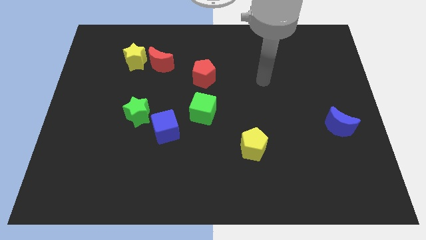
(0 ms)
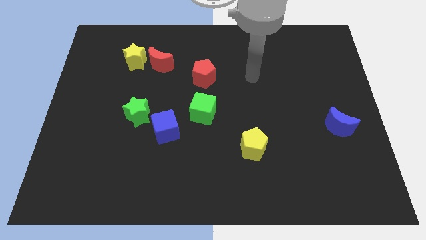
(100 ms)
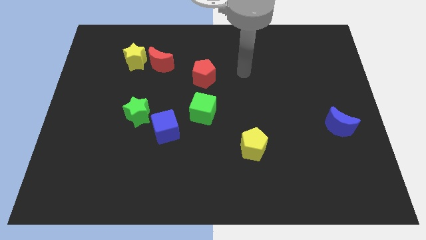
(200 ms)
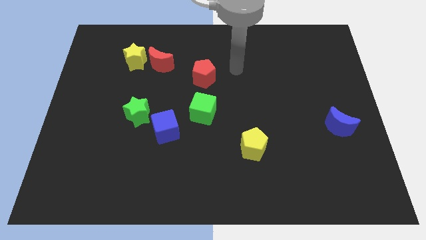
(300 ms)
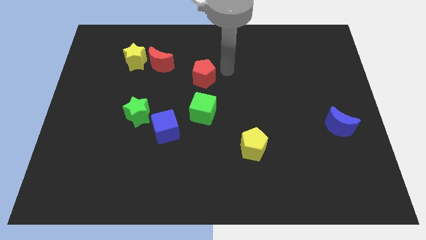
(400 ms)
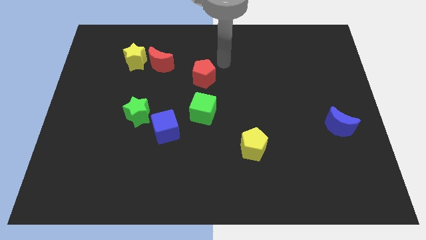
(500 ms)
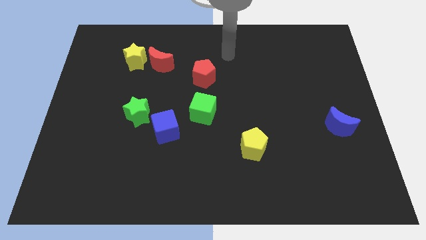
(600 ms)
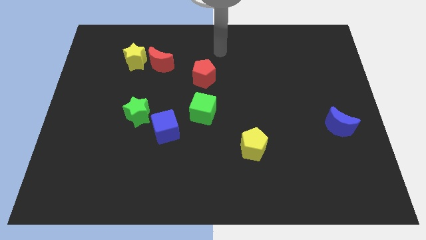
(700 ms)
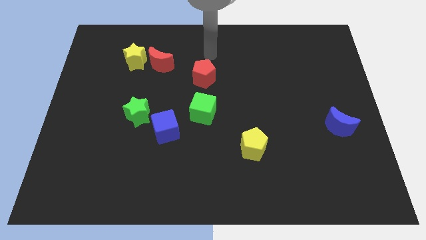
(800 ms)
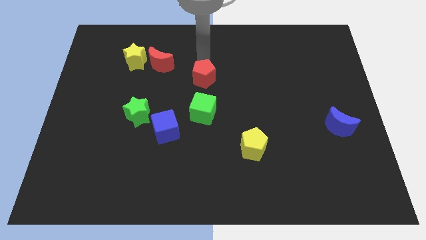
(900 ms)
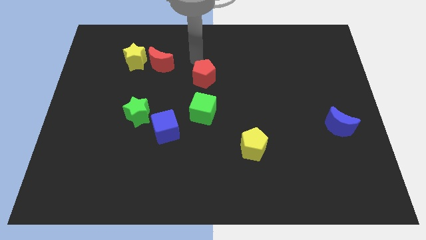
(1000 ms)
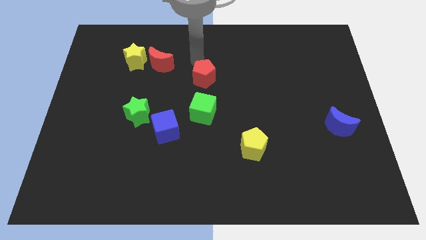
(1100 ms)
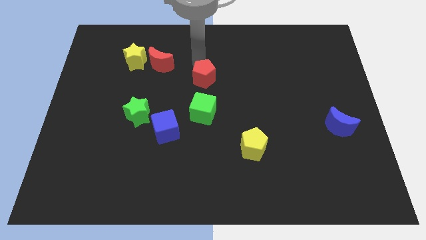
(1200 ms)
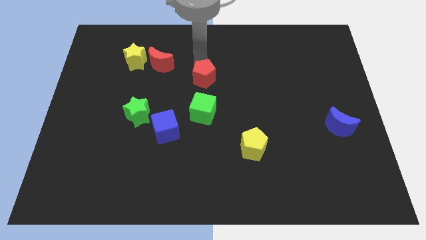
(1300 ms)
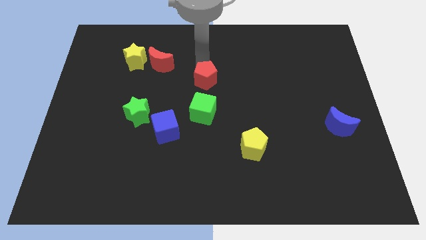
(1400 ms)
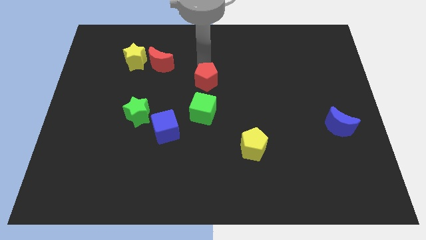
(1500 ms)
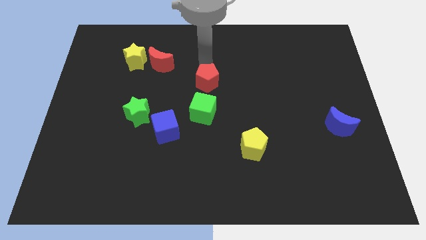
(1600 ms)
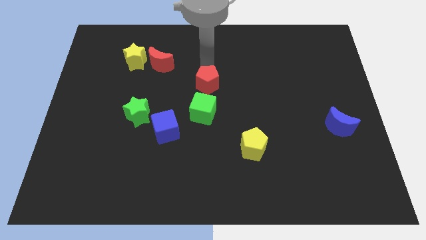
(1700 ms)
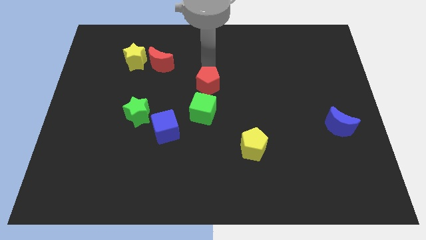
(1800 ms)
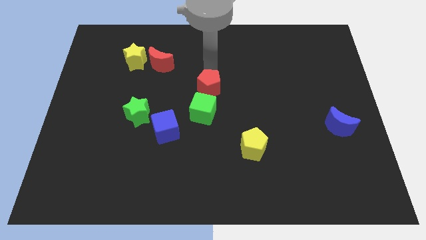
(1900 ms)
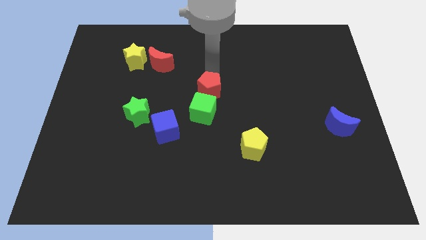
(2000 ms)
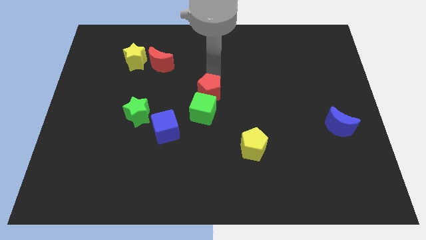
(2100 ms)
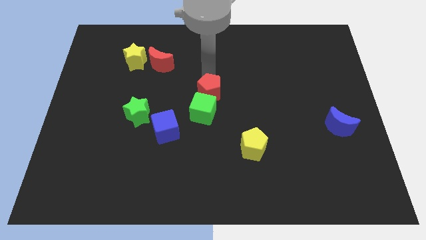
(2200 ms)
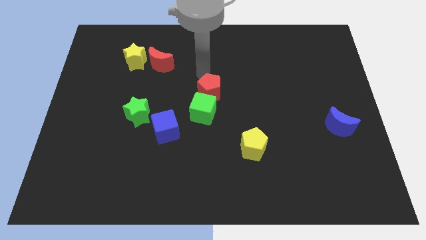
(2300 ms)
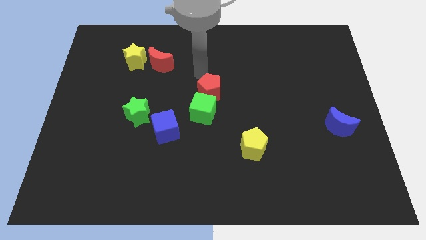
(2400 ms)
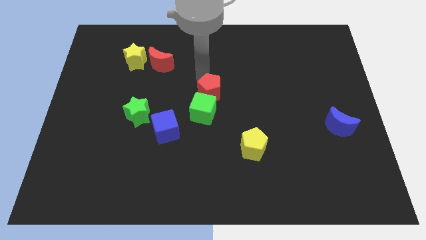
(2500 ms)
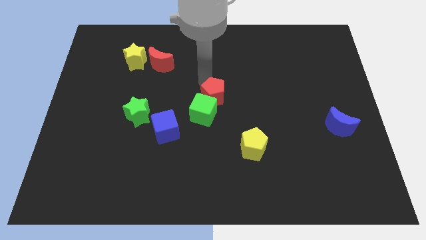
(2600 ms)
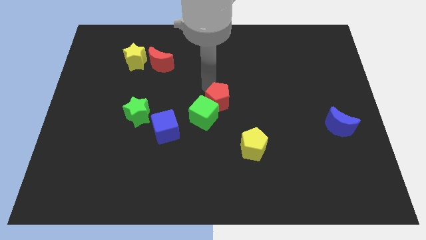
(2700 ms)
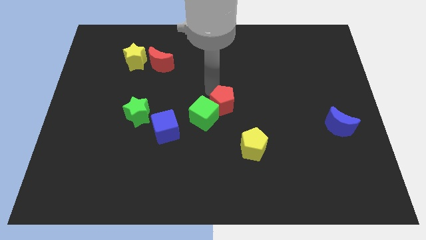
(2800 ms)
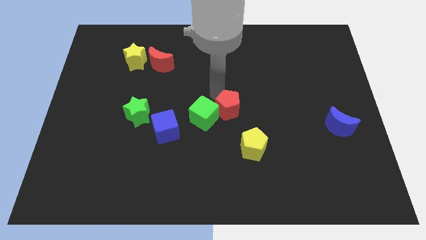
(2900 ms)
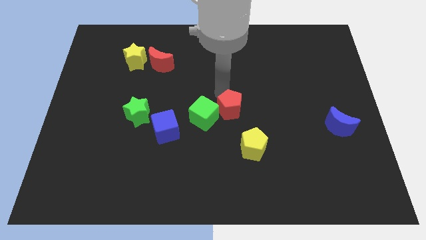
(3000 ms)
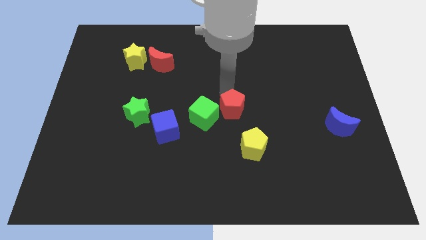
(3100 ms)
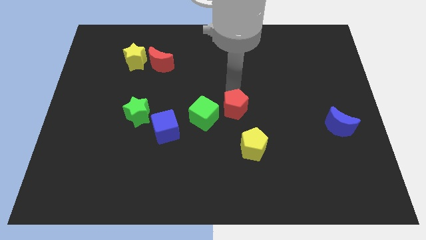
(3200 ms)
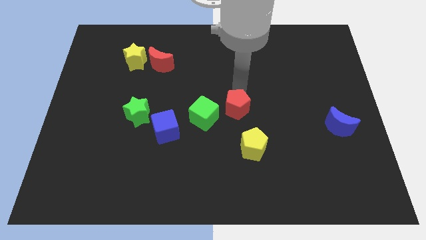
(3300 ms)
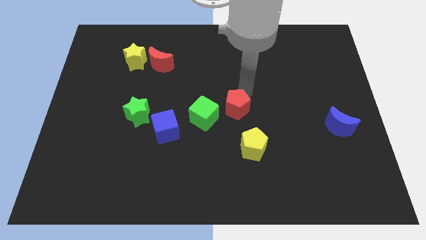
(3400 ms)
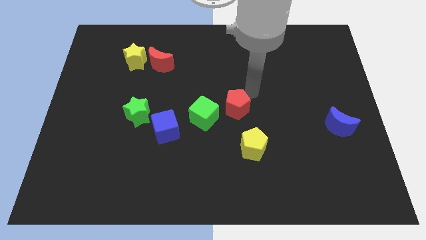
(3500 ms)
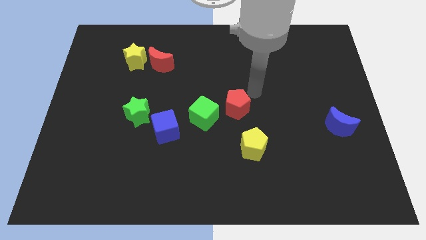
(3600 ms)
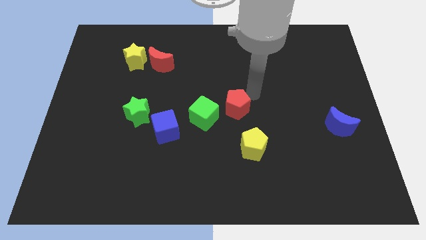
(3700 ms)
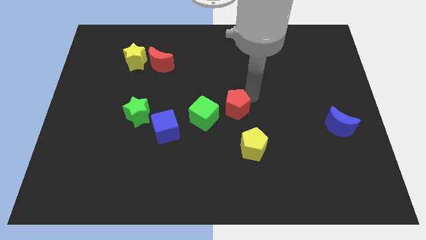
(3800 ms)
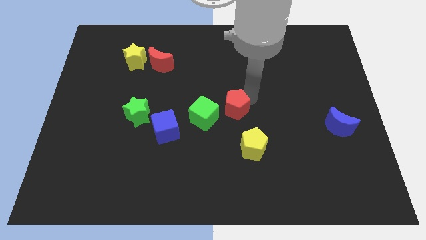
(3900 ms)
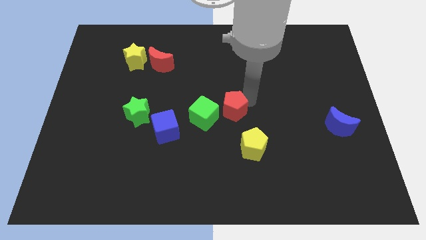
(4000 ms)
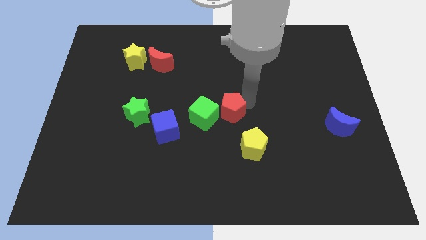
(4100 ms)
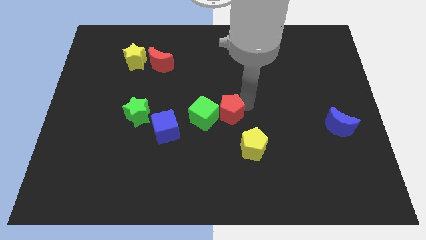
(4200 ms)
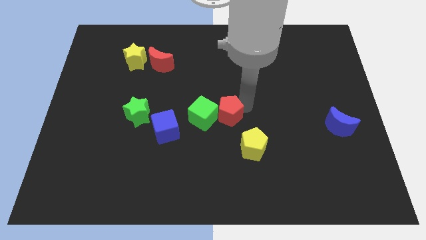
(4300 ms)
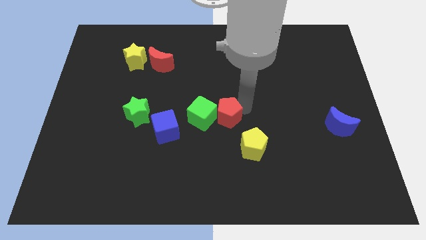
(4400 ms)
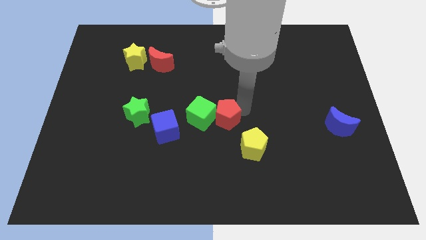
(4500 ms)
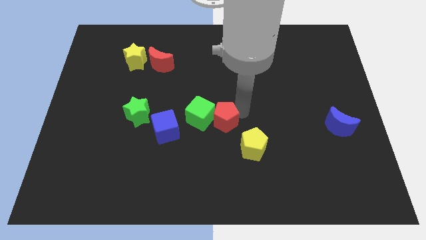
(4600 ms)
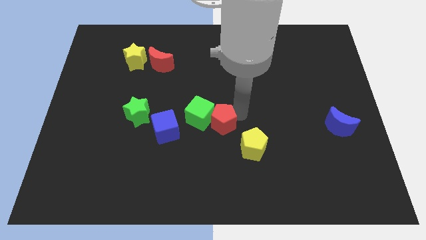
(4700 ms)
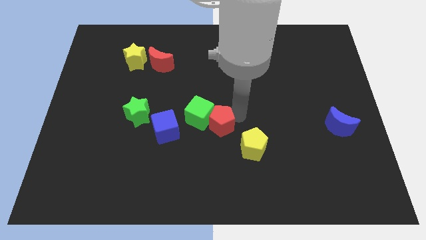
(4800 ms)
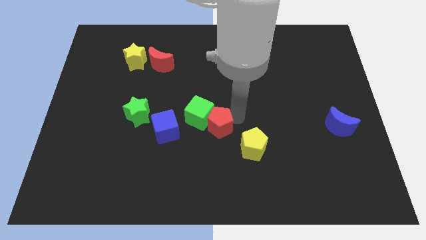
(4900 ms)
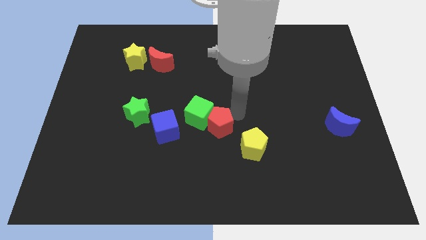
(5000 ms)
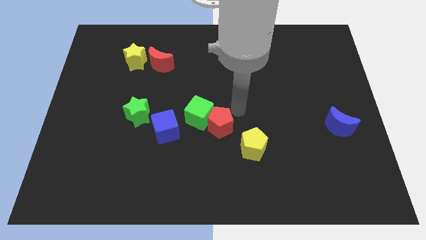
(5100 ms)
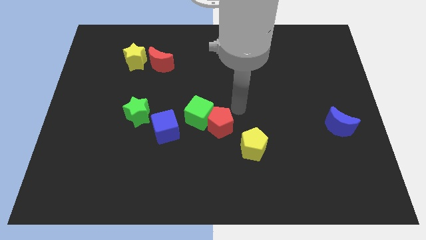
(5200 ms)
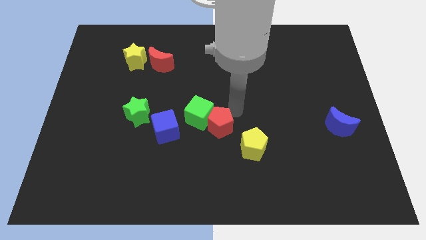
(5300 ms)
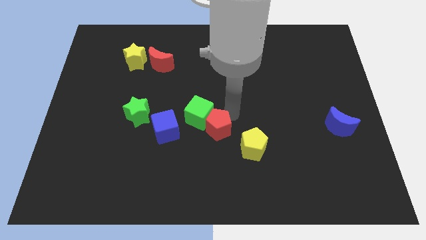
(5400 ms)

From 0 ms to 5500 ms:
put the red pentagon below the green cube

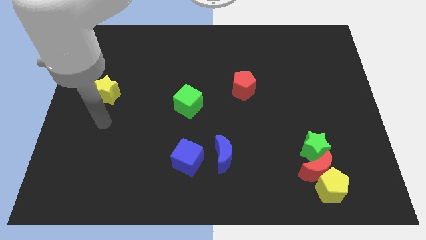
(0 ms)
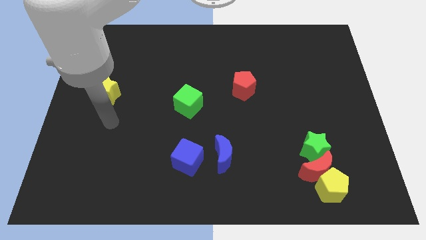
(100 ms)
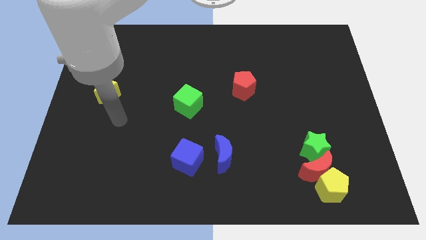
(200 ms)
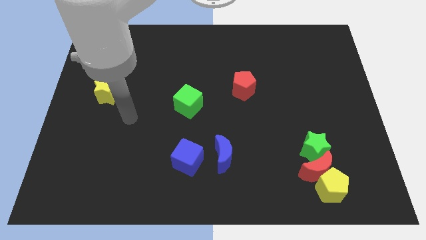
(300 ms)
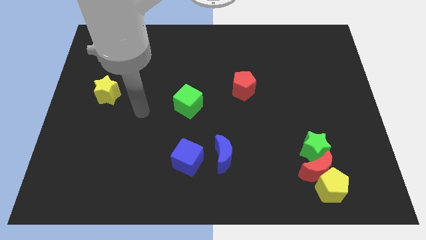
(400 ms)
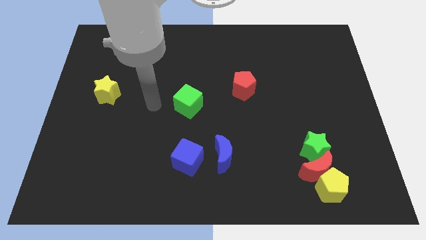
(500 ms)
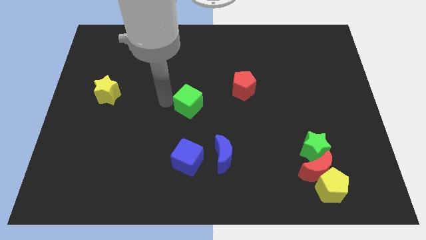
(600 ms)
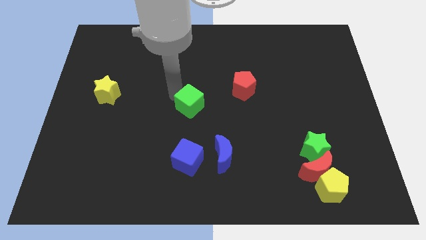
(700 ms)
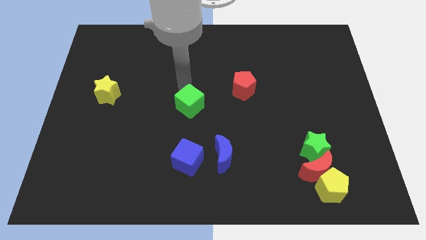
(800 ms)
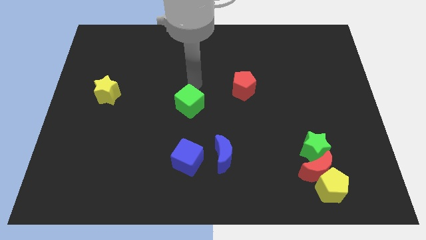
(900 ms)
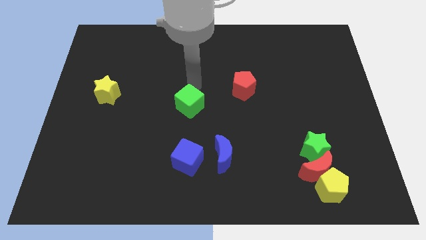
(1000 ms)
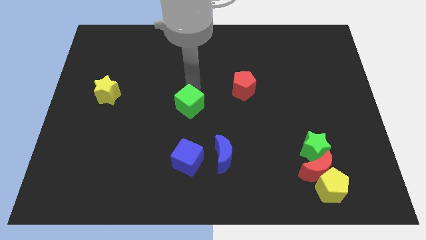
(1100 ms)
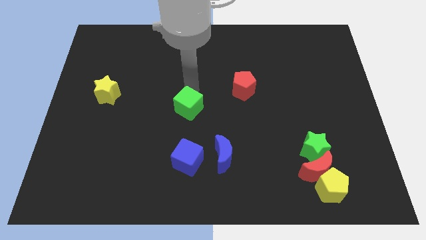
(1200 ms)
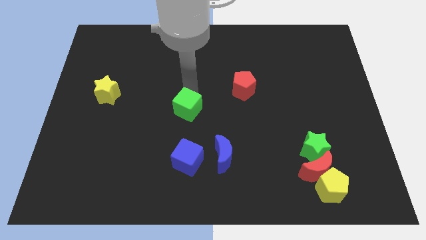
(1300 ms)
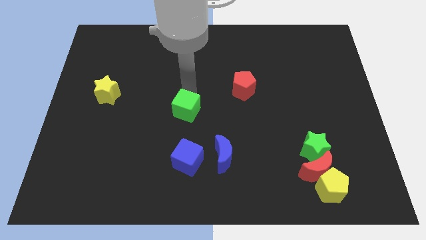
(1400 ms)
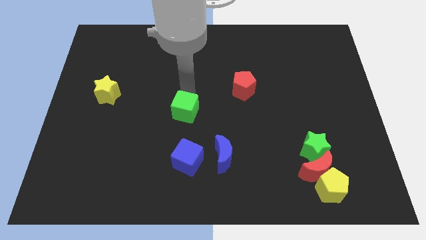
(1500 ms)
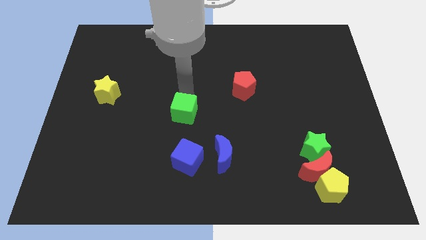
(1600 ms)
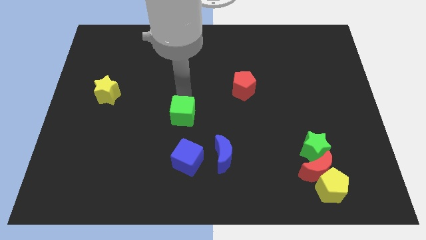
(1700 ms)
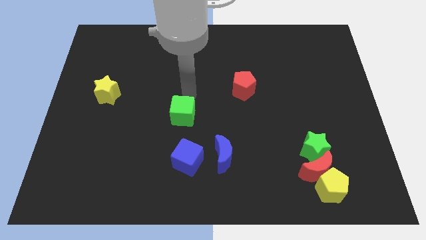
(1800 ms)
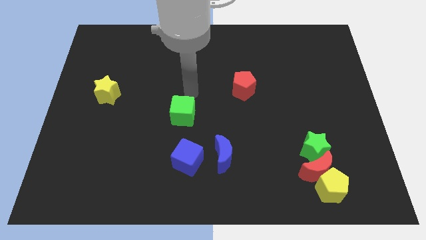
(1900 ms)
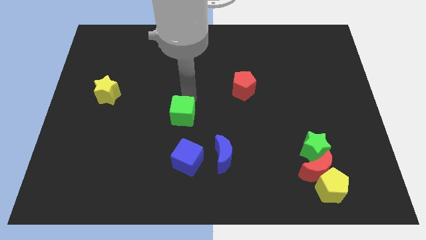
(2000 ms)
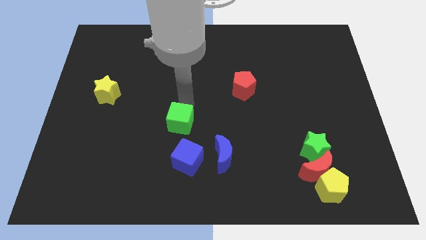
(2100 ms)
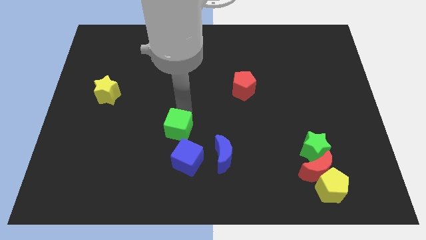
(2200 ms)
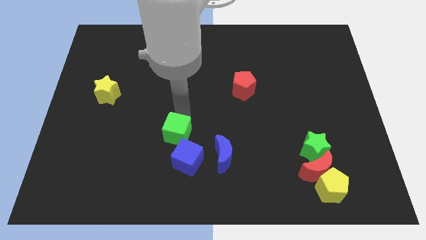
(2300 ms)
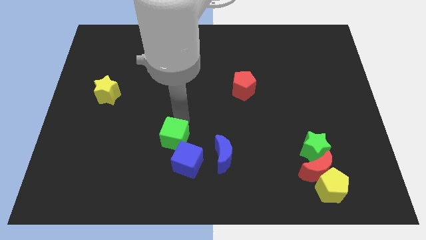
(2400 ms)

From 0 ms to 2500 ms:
put the green cube to the left of the blue moon

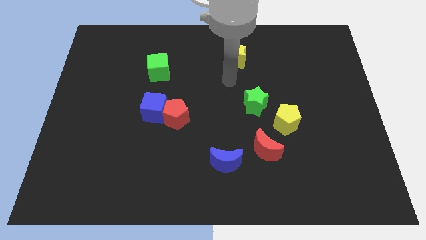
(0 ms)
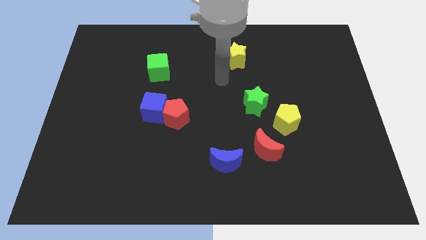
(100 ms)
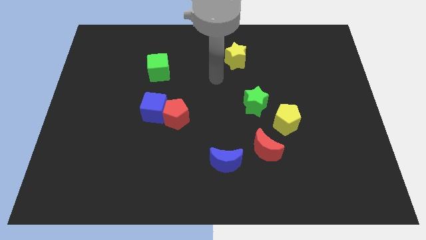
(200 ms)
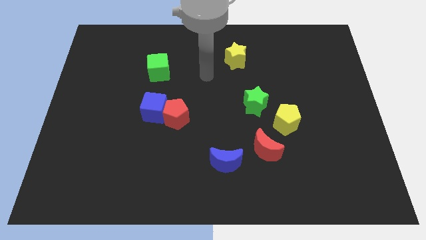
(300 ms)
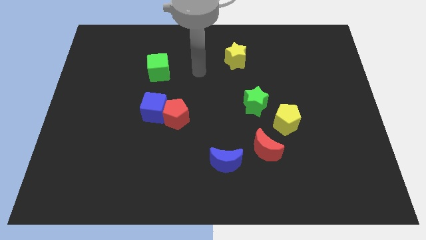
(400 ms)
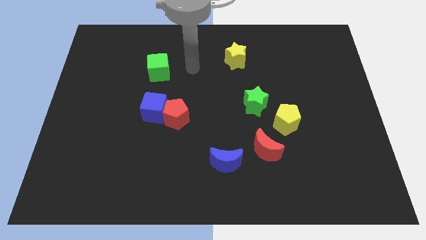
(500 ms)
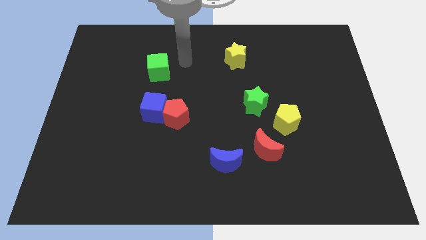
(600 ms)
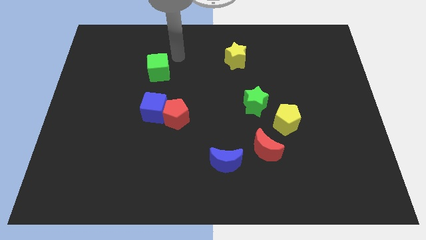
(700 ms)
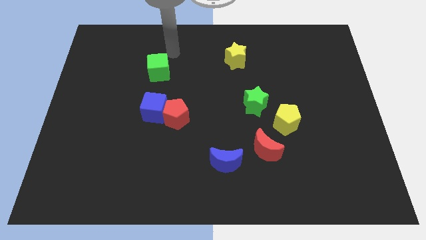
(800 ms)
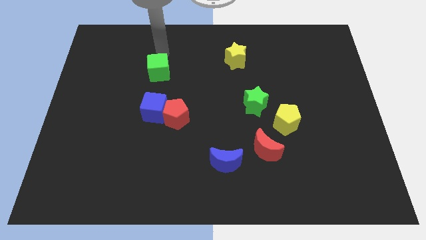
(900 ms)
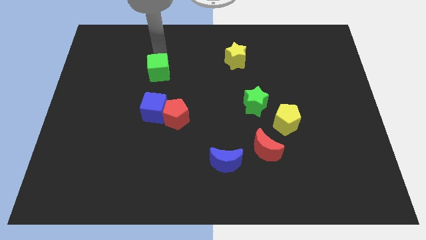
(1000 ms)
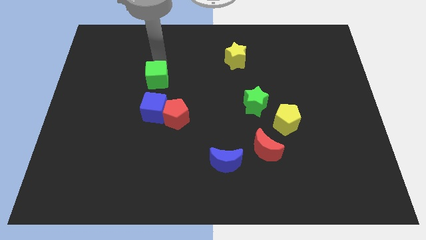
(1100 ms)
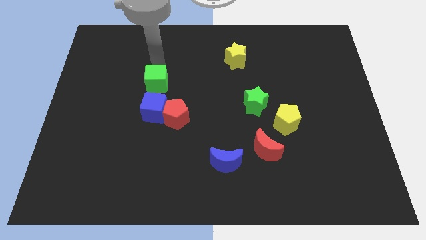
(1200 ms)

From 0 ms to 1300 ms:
slide the green cube to the top left side of the red pentagon
